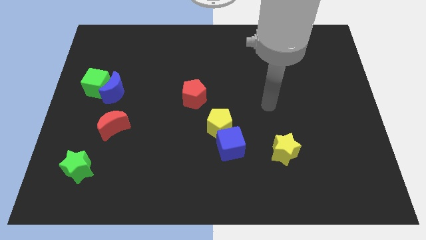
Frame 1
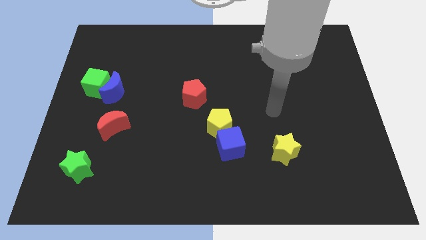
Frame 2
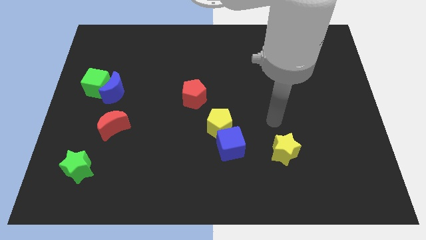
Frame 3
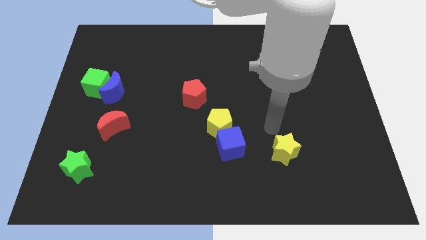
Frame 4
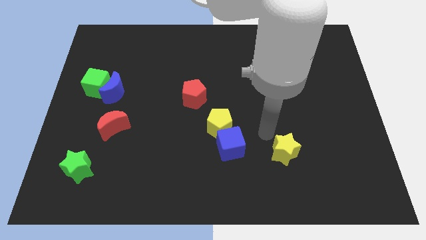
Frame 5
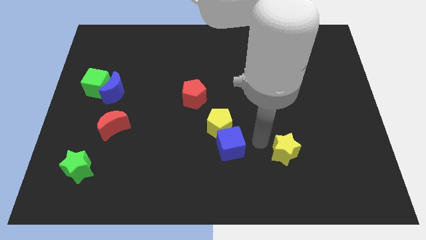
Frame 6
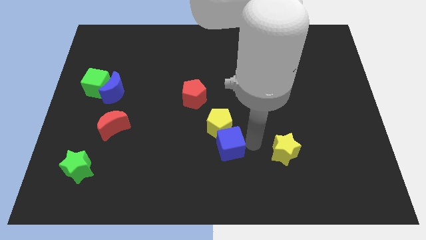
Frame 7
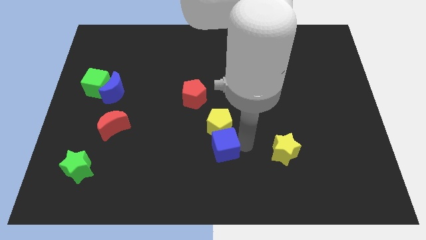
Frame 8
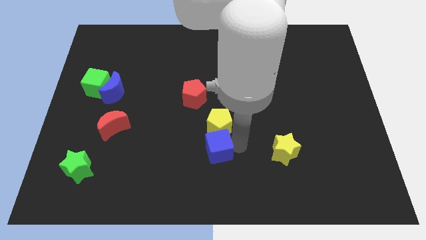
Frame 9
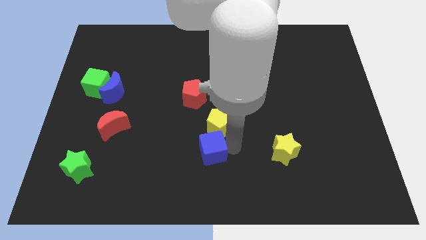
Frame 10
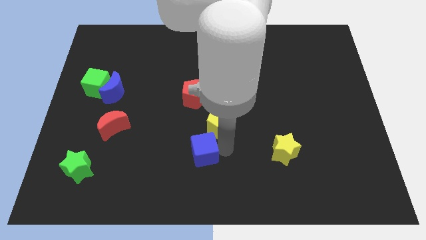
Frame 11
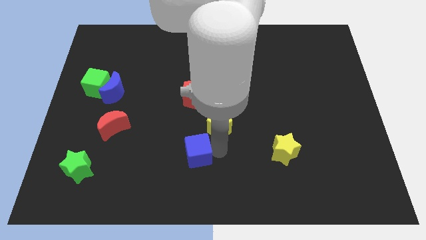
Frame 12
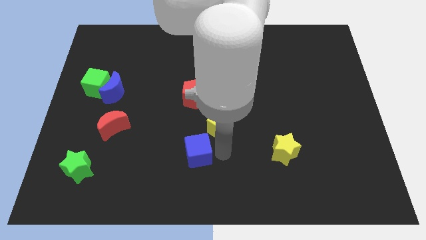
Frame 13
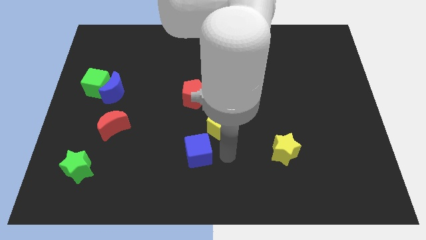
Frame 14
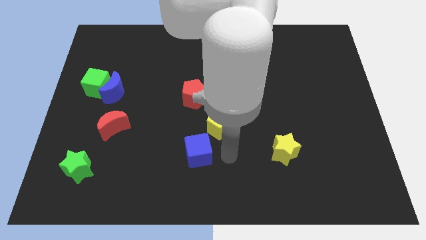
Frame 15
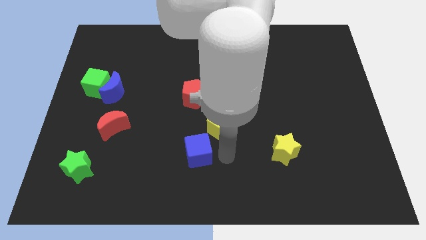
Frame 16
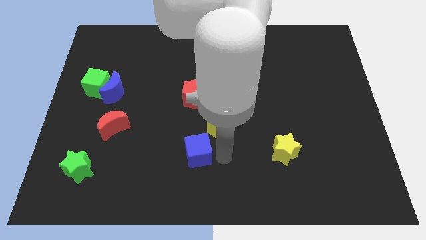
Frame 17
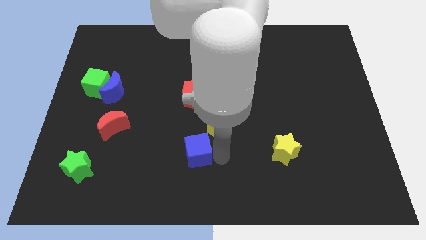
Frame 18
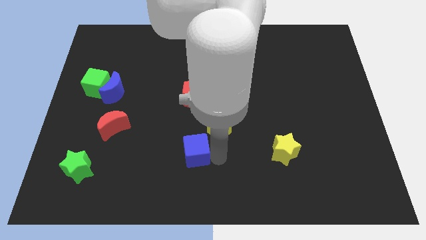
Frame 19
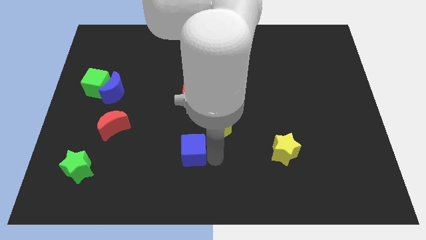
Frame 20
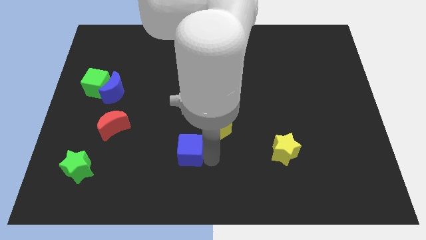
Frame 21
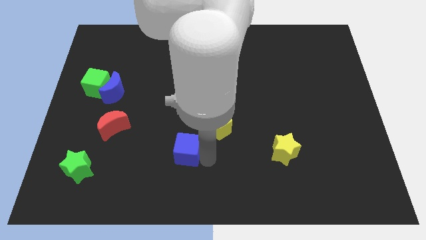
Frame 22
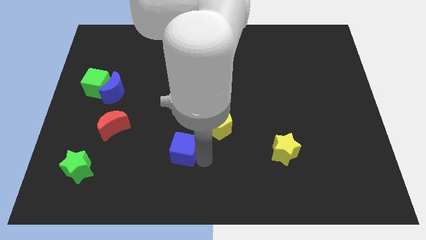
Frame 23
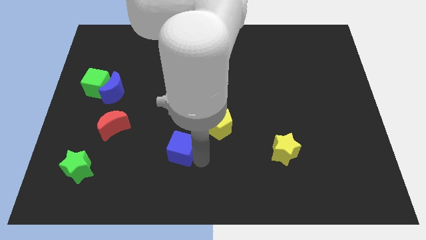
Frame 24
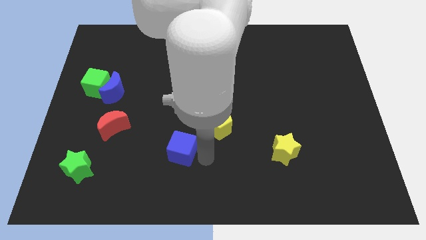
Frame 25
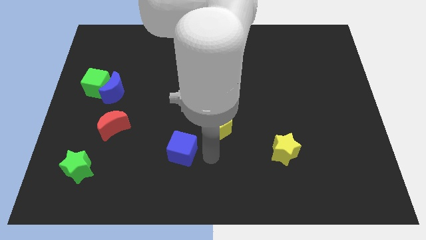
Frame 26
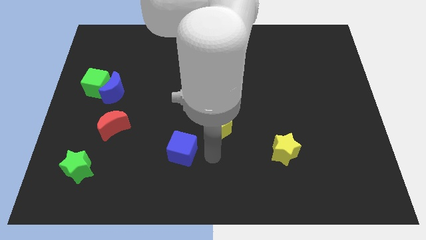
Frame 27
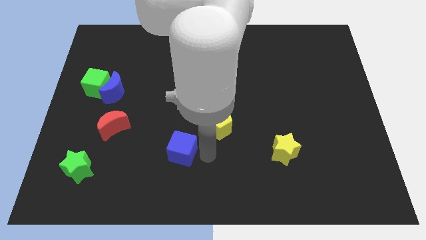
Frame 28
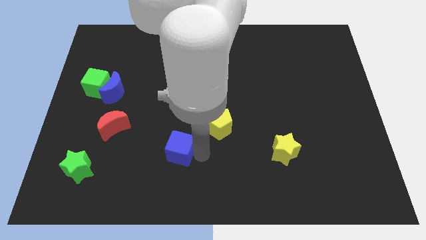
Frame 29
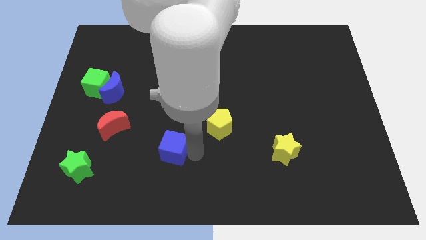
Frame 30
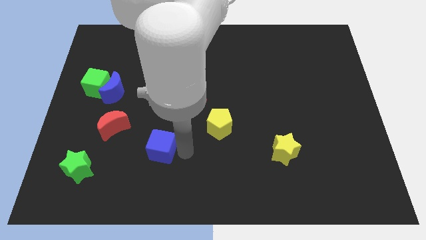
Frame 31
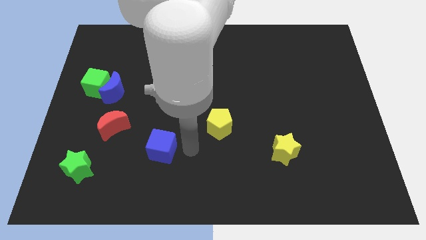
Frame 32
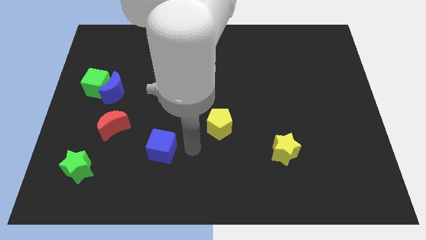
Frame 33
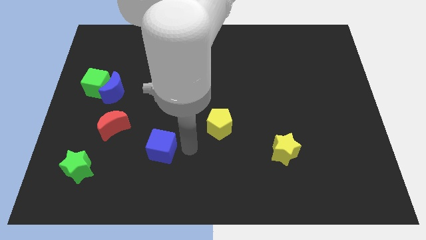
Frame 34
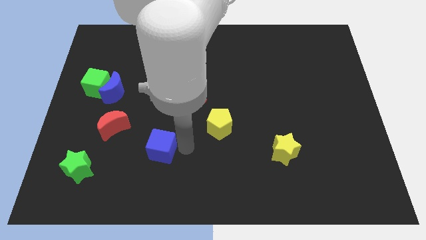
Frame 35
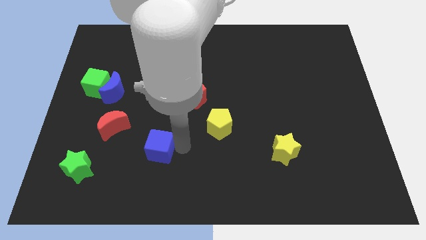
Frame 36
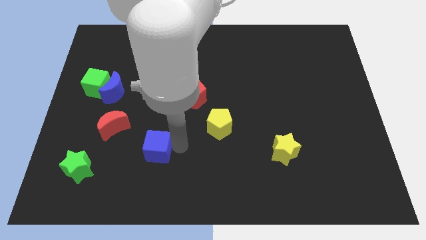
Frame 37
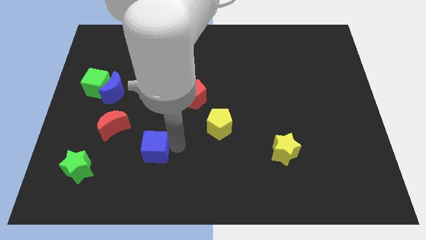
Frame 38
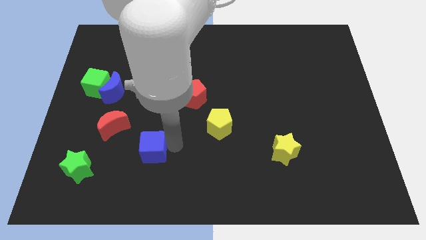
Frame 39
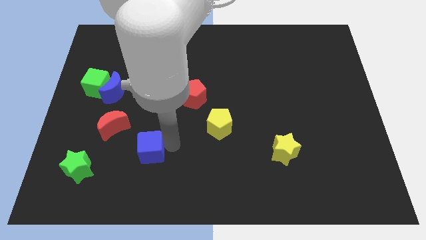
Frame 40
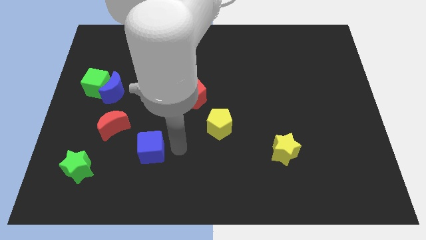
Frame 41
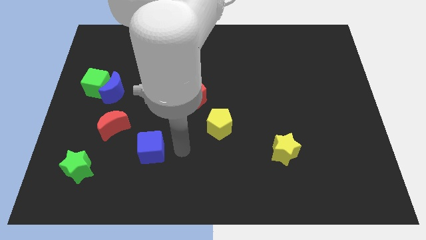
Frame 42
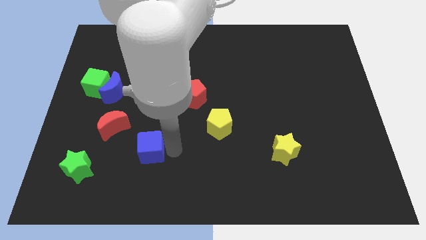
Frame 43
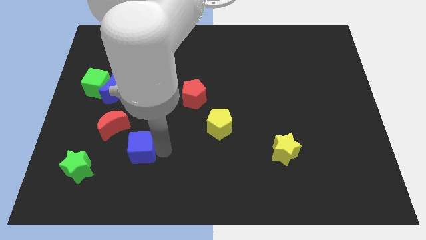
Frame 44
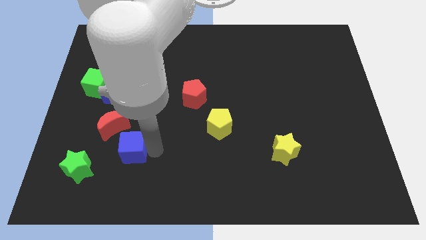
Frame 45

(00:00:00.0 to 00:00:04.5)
move the blue cube to the left

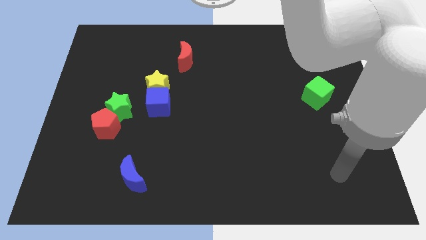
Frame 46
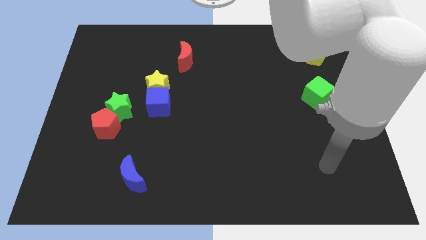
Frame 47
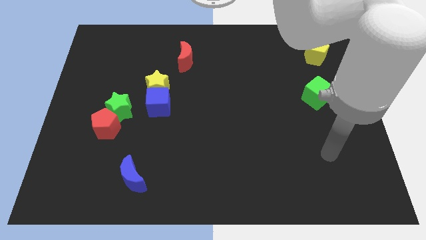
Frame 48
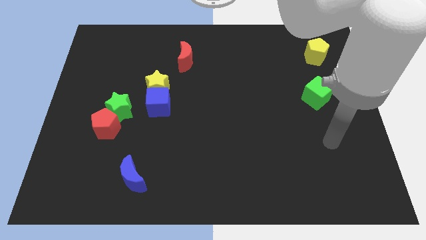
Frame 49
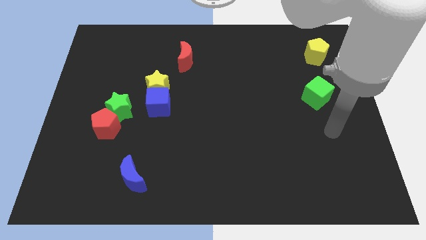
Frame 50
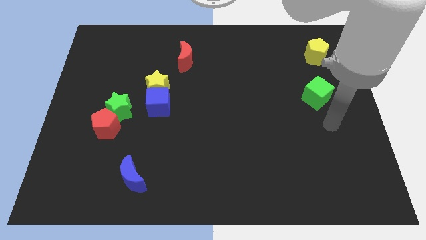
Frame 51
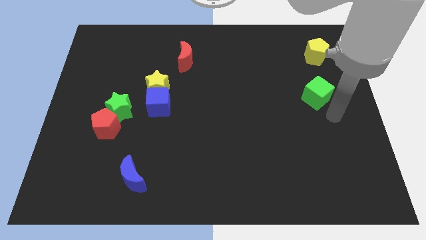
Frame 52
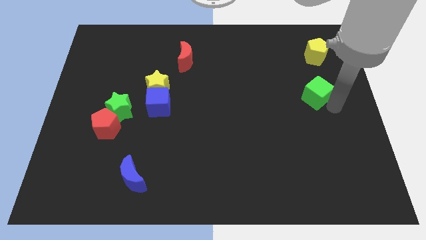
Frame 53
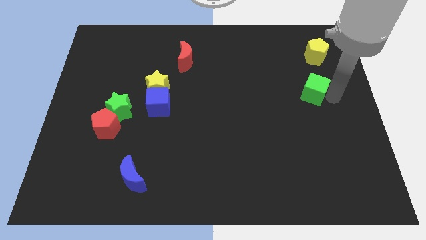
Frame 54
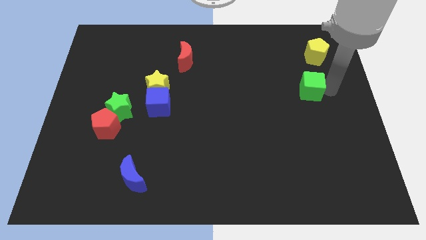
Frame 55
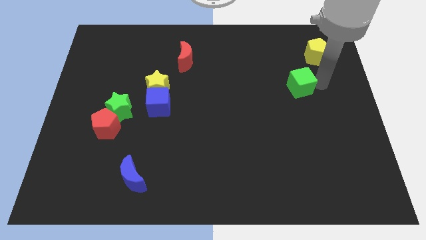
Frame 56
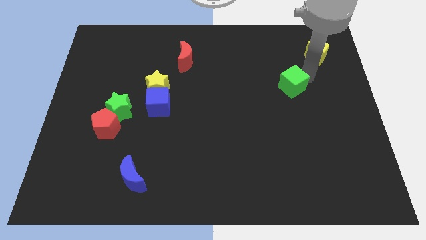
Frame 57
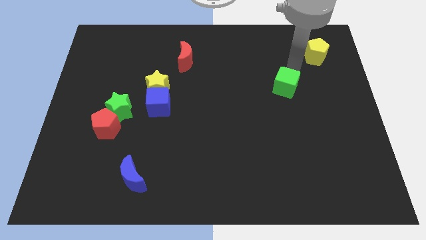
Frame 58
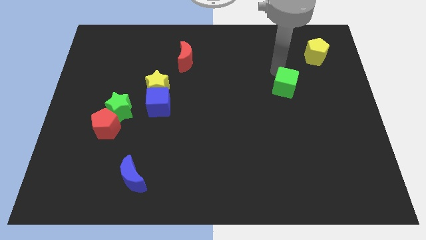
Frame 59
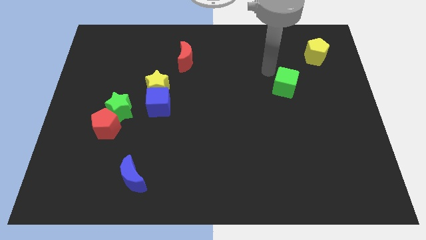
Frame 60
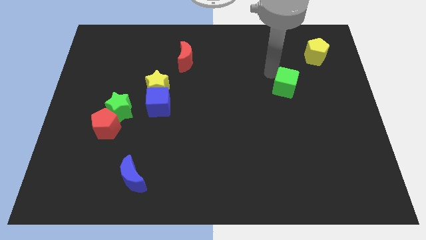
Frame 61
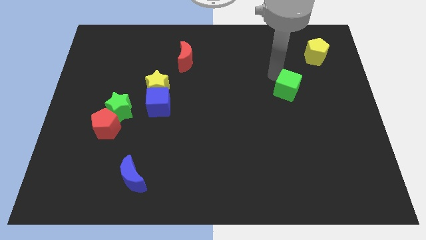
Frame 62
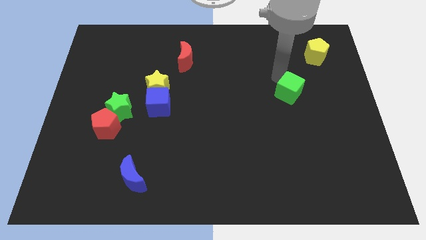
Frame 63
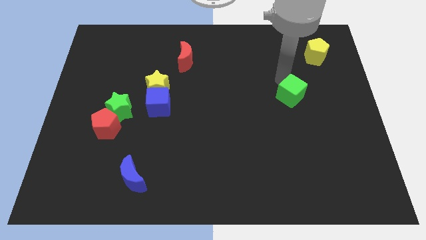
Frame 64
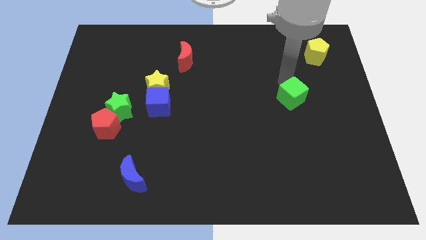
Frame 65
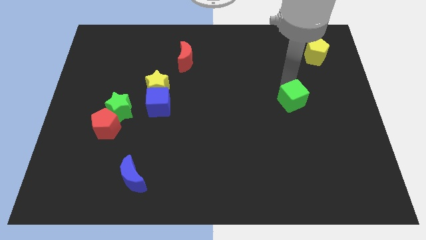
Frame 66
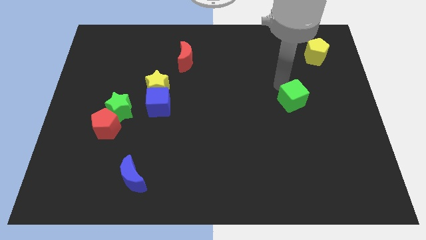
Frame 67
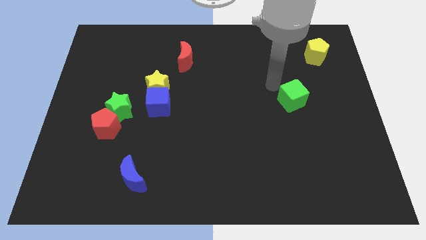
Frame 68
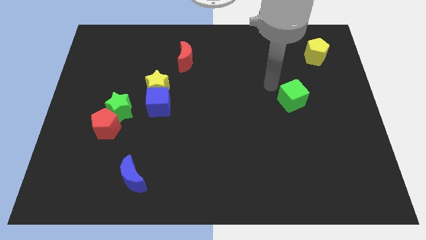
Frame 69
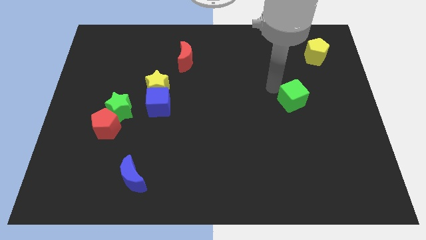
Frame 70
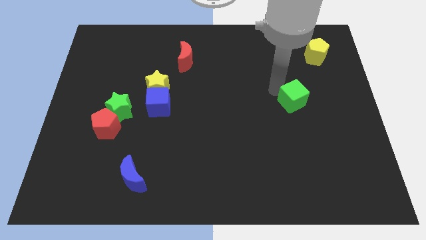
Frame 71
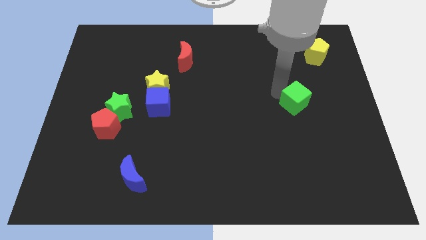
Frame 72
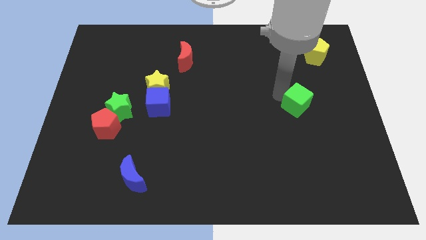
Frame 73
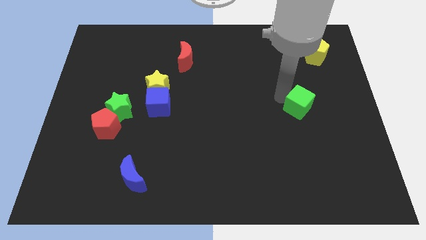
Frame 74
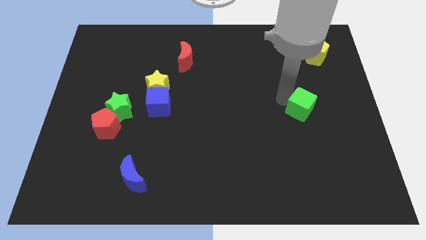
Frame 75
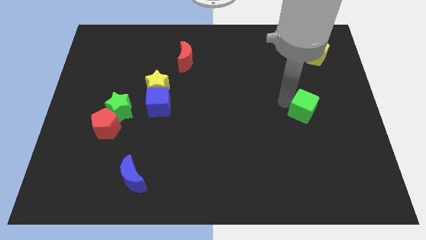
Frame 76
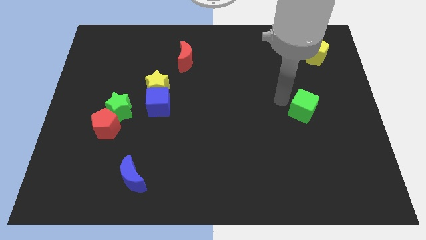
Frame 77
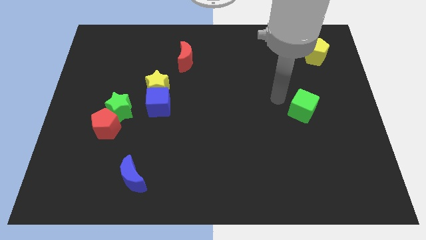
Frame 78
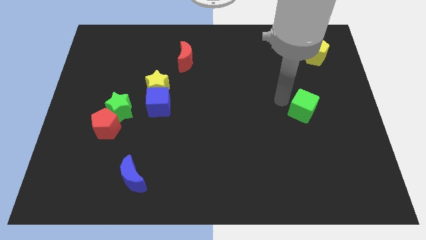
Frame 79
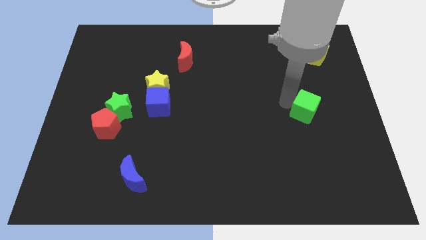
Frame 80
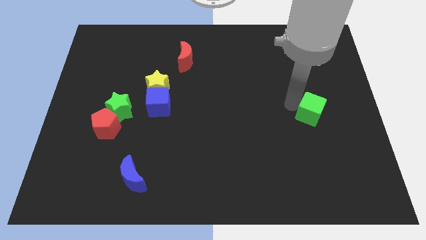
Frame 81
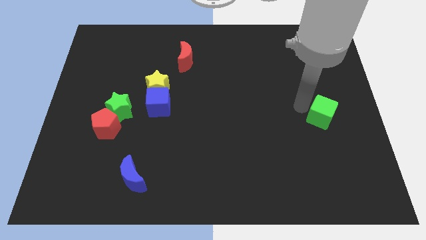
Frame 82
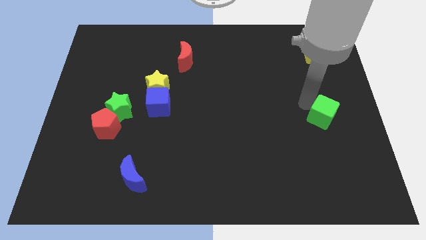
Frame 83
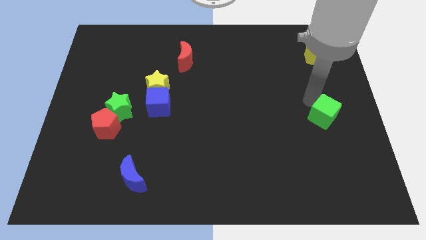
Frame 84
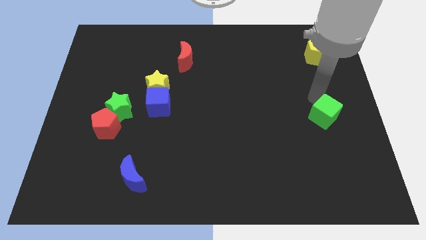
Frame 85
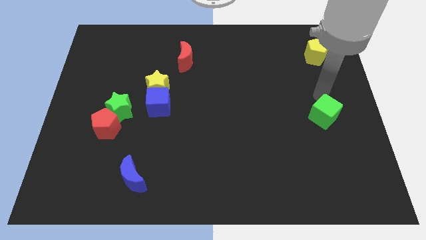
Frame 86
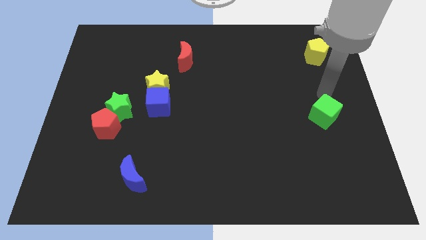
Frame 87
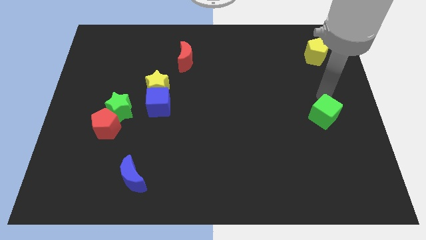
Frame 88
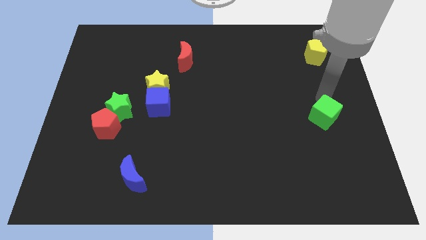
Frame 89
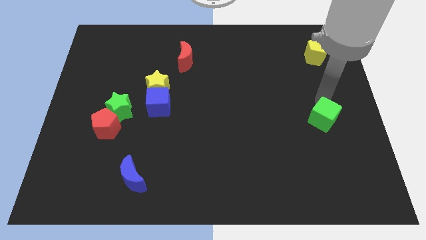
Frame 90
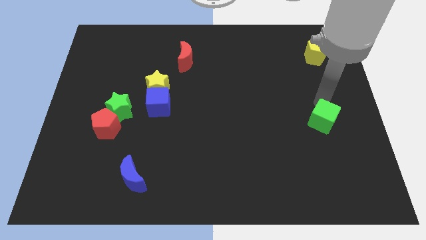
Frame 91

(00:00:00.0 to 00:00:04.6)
push the green cube down a little bit
